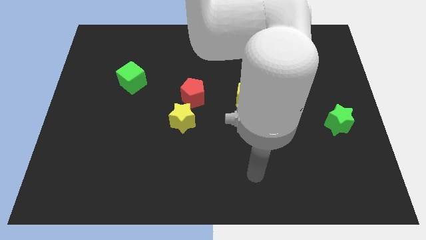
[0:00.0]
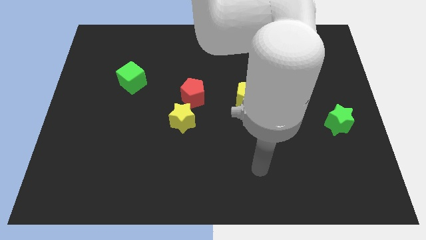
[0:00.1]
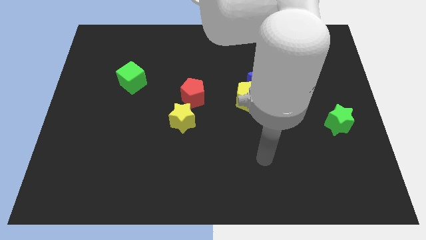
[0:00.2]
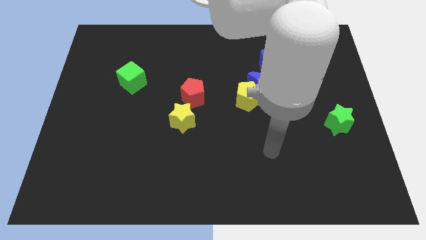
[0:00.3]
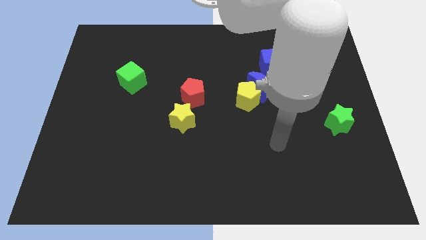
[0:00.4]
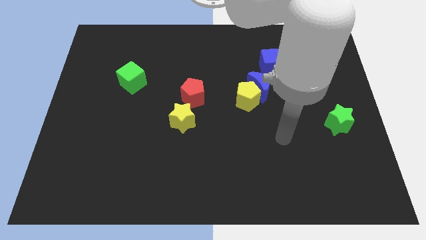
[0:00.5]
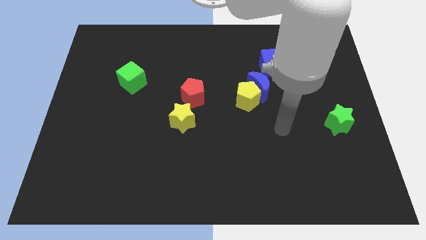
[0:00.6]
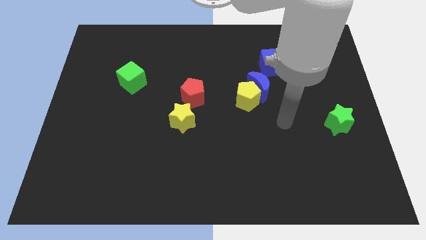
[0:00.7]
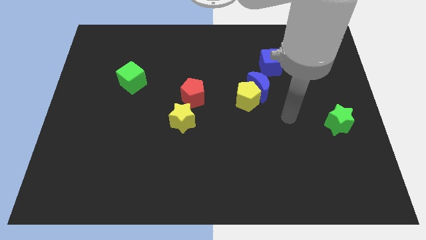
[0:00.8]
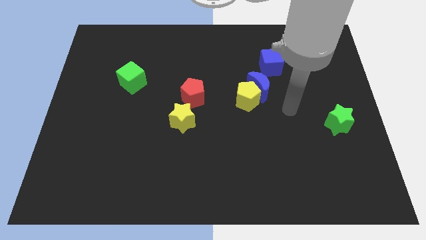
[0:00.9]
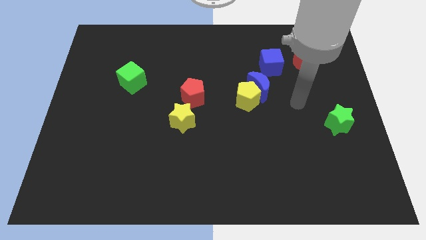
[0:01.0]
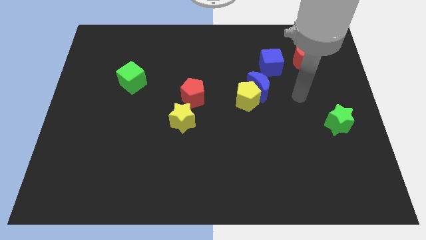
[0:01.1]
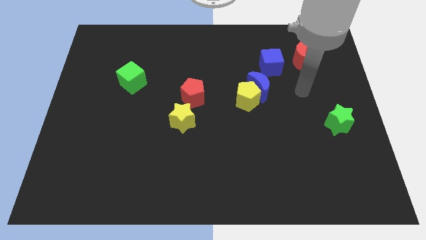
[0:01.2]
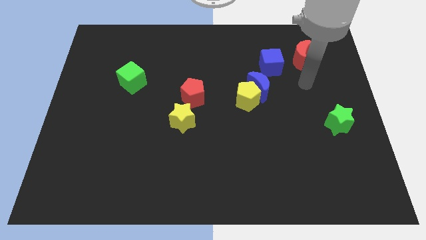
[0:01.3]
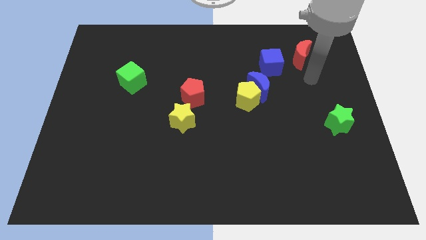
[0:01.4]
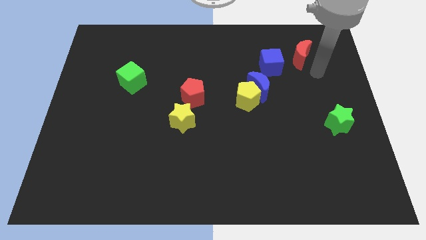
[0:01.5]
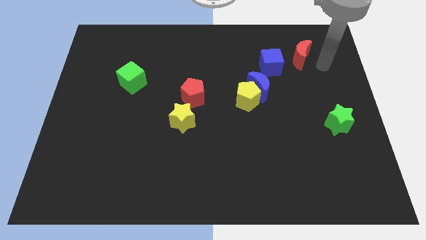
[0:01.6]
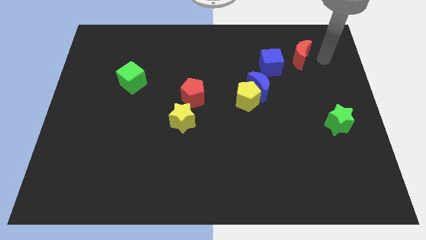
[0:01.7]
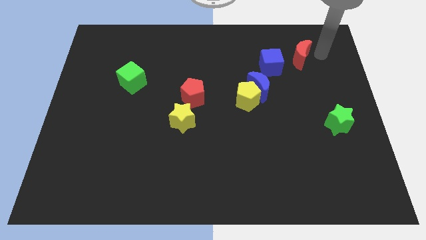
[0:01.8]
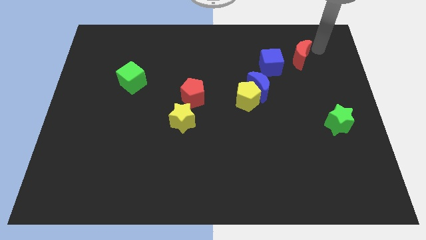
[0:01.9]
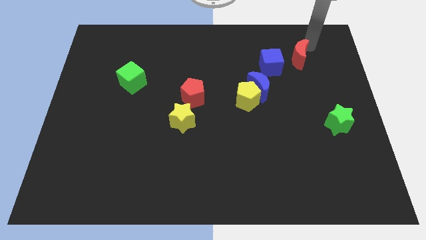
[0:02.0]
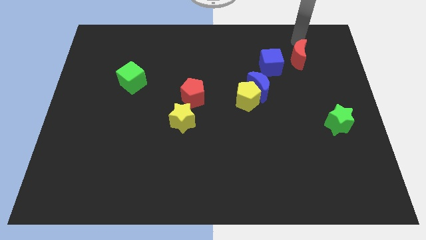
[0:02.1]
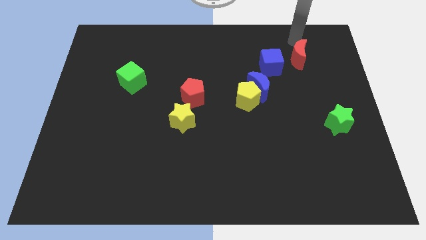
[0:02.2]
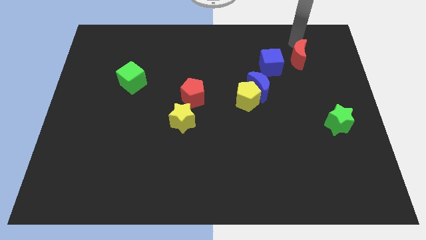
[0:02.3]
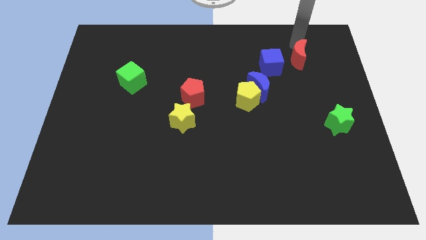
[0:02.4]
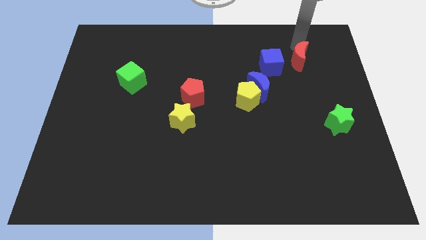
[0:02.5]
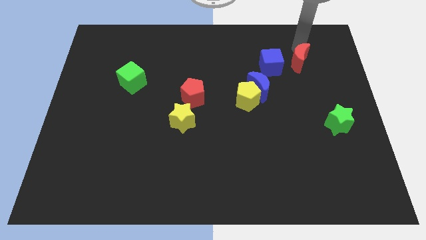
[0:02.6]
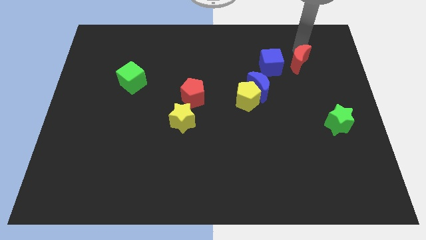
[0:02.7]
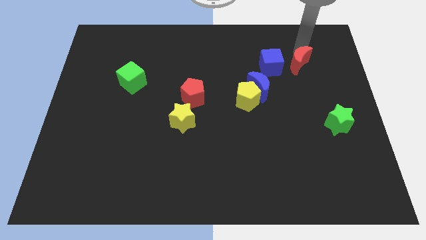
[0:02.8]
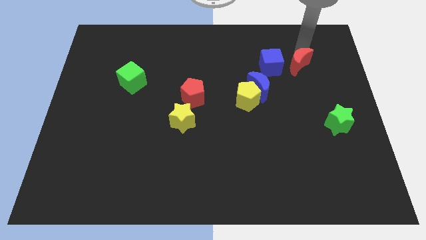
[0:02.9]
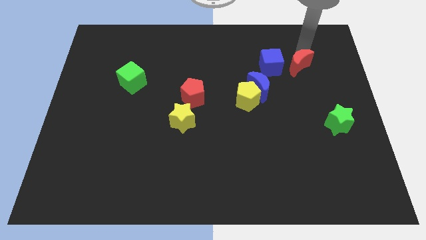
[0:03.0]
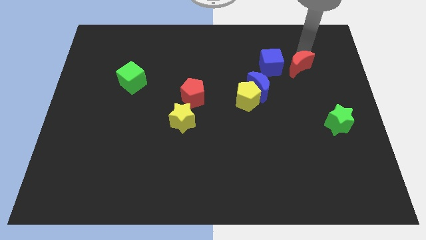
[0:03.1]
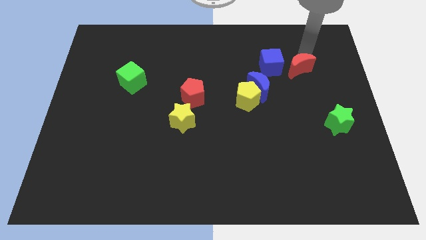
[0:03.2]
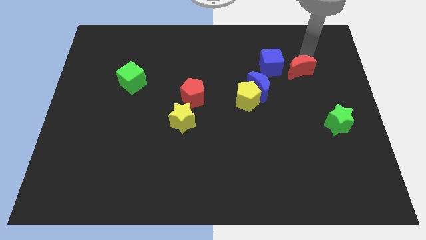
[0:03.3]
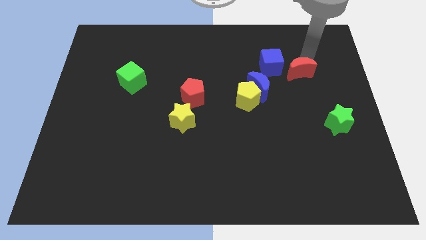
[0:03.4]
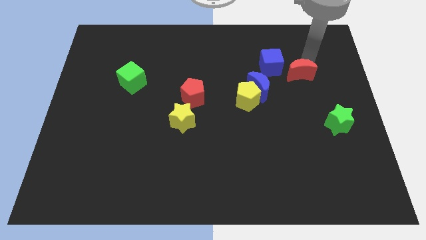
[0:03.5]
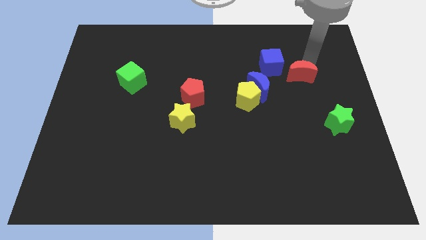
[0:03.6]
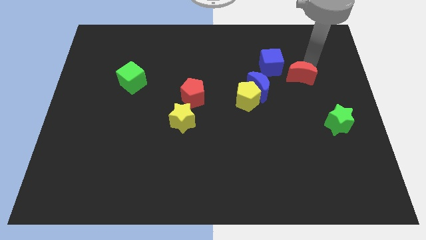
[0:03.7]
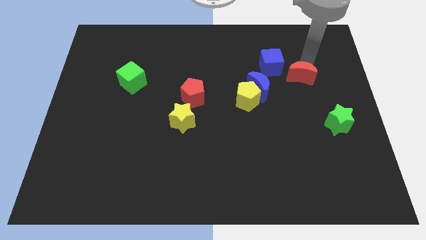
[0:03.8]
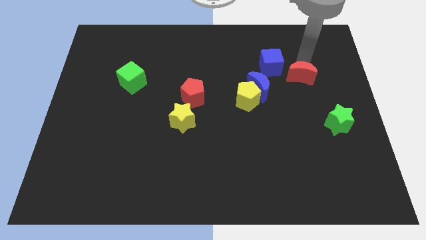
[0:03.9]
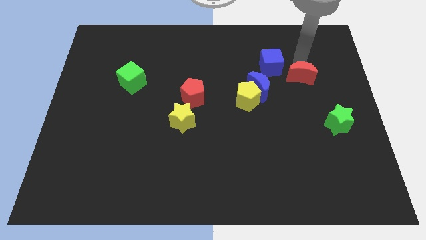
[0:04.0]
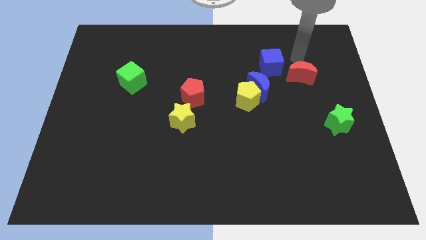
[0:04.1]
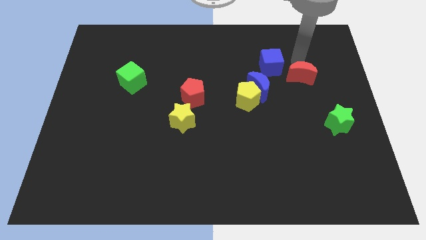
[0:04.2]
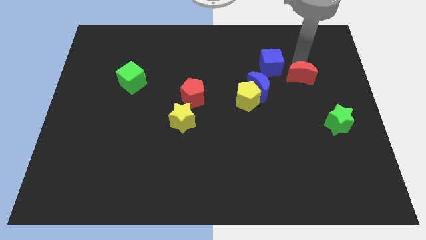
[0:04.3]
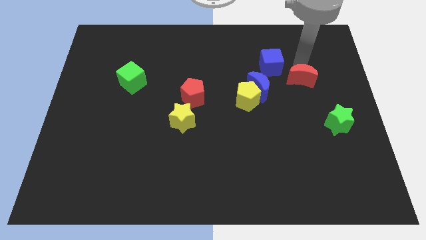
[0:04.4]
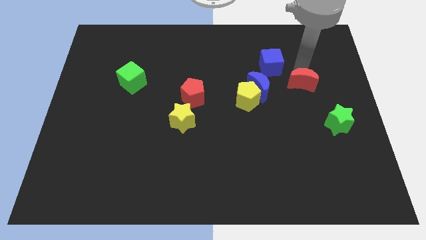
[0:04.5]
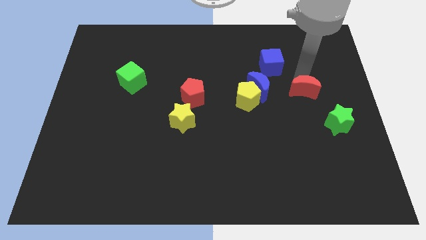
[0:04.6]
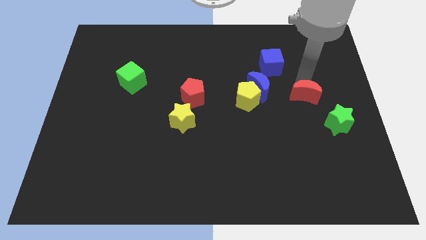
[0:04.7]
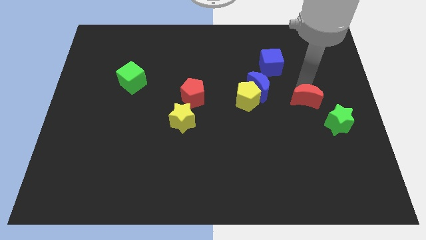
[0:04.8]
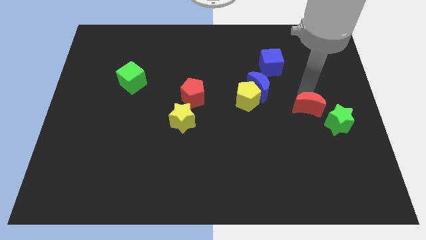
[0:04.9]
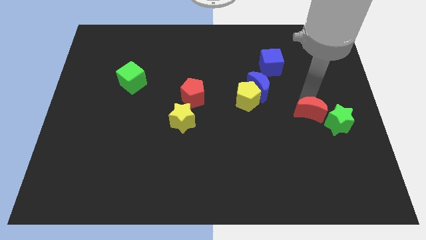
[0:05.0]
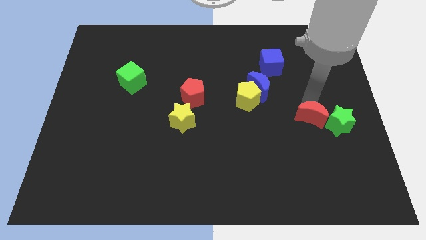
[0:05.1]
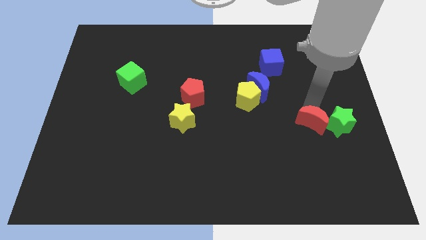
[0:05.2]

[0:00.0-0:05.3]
slide the red moon down

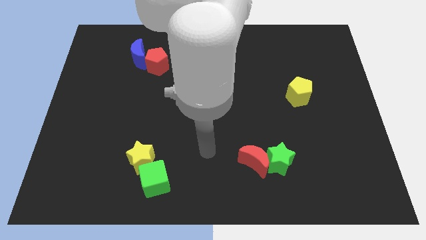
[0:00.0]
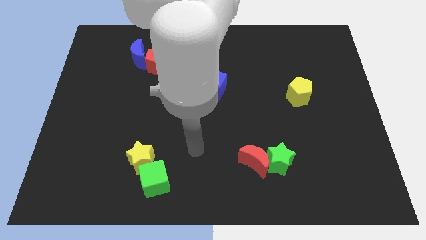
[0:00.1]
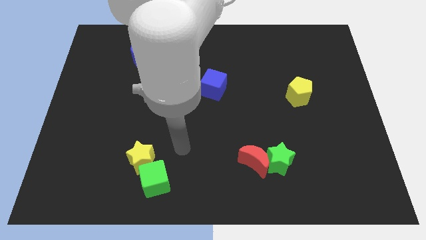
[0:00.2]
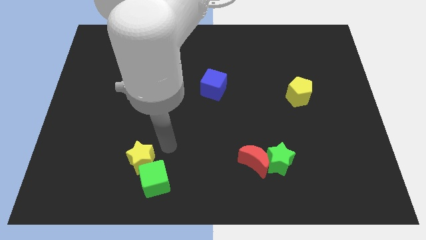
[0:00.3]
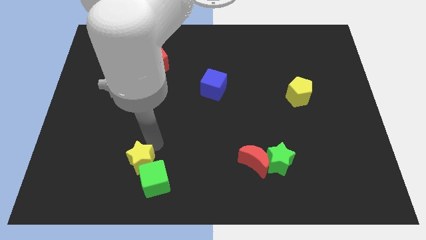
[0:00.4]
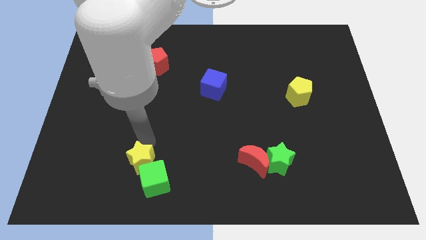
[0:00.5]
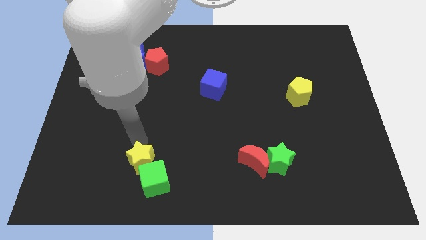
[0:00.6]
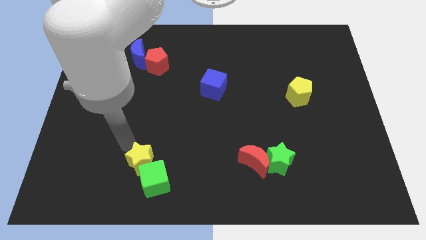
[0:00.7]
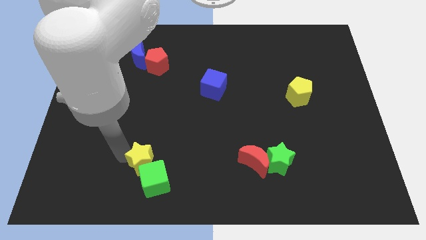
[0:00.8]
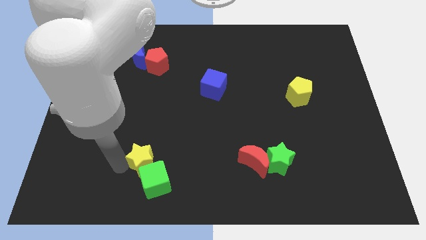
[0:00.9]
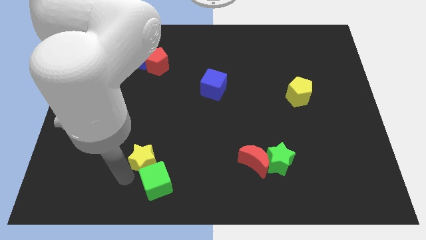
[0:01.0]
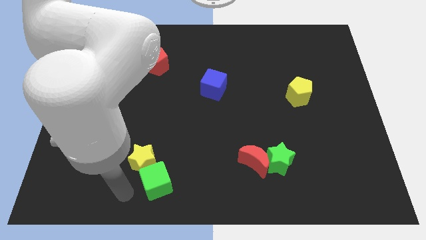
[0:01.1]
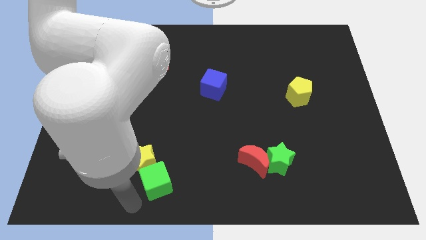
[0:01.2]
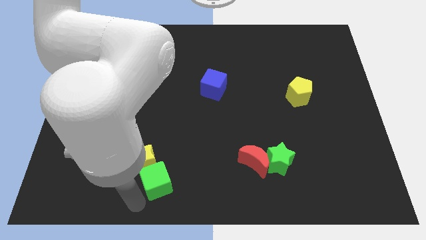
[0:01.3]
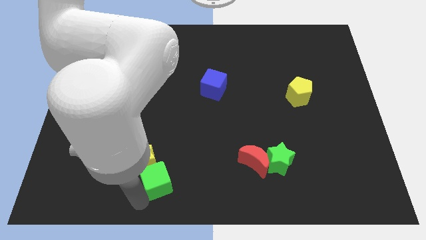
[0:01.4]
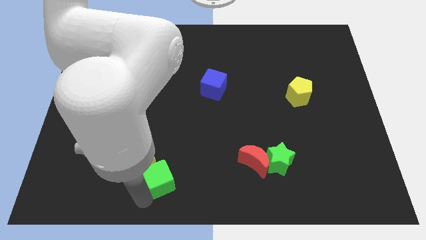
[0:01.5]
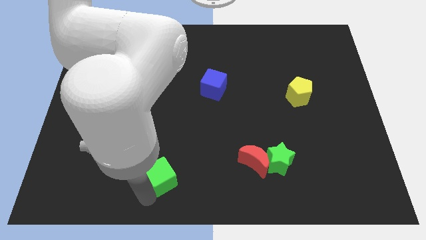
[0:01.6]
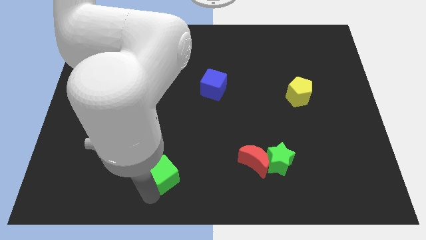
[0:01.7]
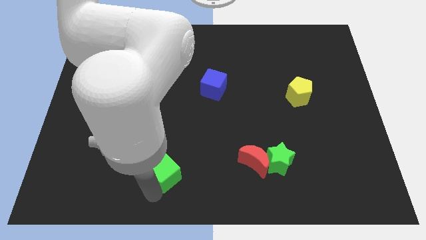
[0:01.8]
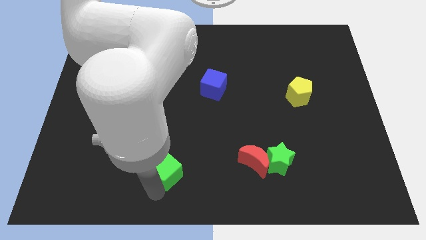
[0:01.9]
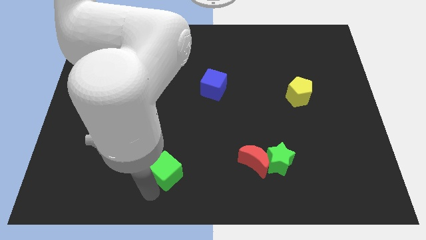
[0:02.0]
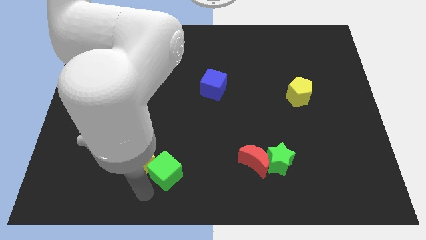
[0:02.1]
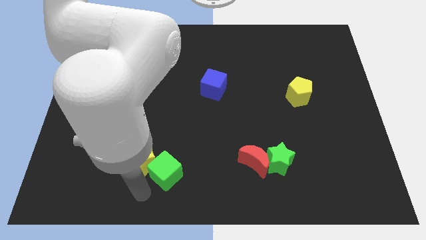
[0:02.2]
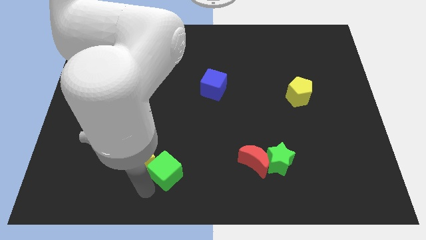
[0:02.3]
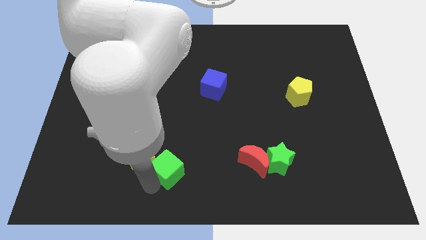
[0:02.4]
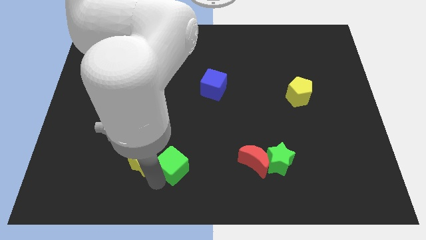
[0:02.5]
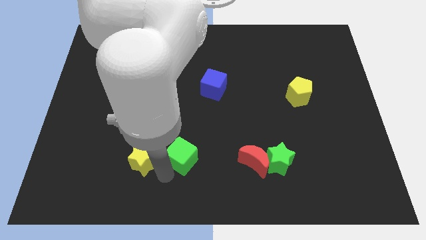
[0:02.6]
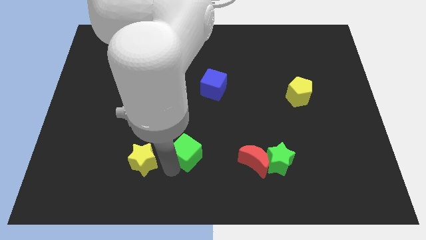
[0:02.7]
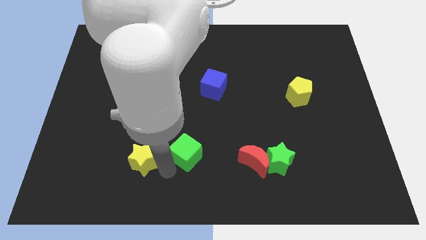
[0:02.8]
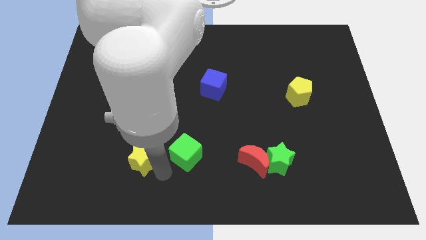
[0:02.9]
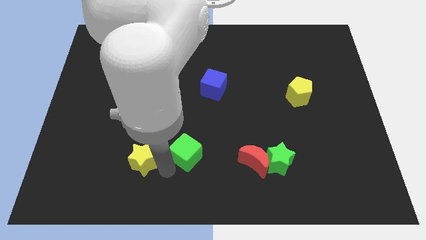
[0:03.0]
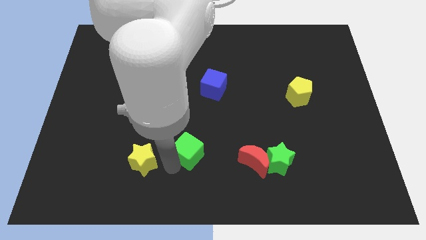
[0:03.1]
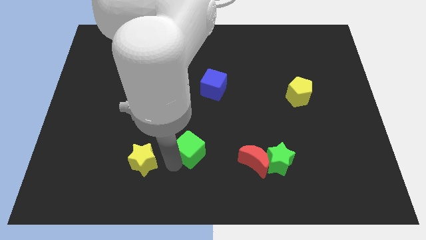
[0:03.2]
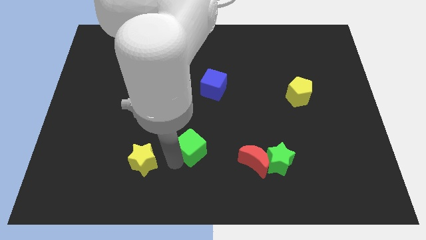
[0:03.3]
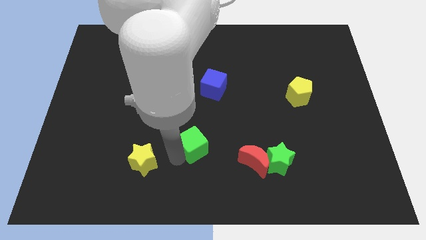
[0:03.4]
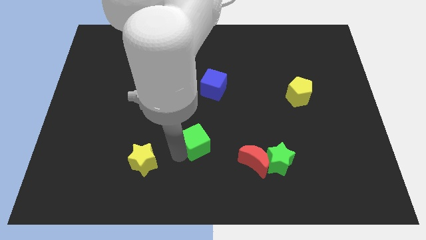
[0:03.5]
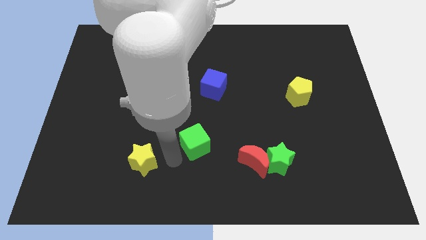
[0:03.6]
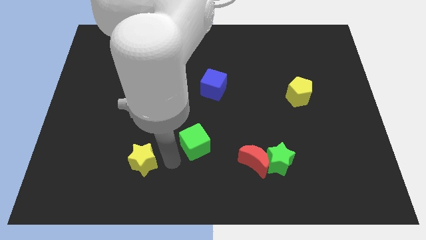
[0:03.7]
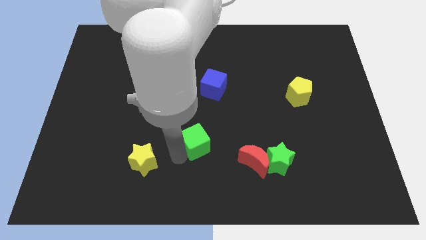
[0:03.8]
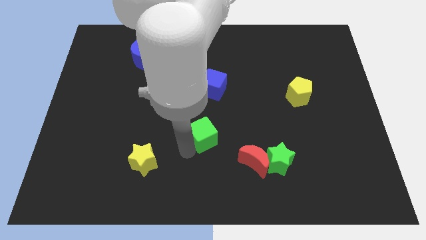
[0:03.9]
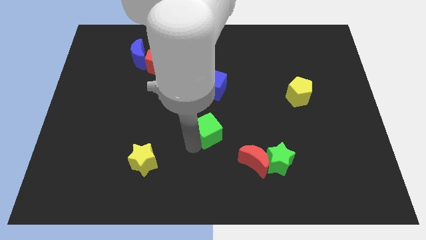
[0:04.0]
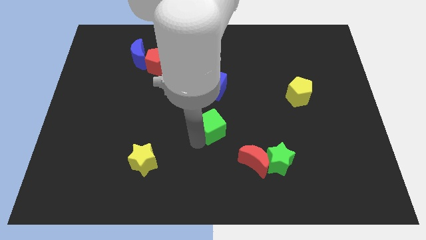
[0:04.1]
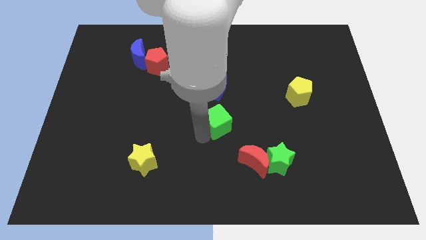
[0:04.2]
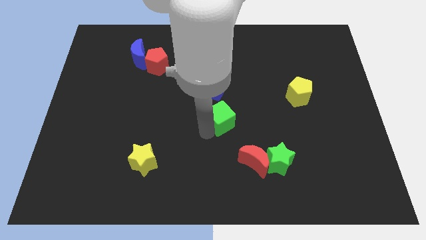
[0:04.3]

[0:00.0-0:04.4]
push the green cube upwards and then right
